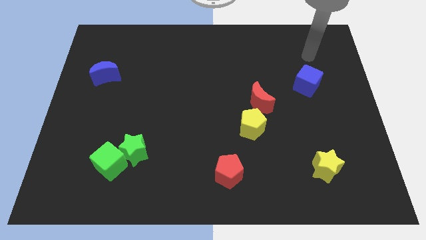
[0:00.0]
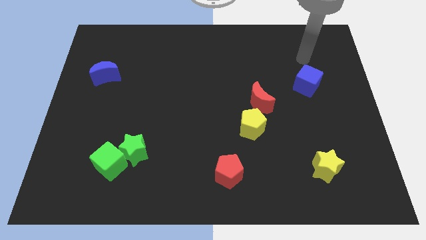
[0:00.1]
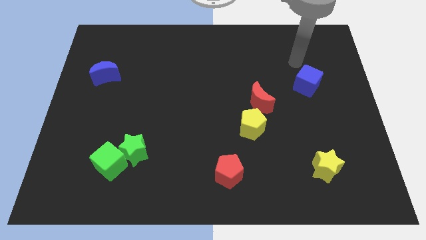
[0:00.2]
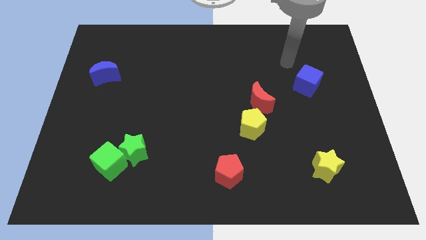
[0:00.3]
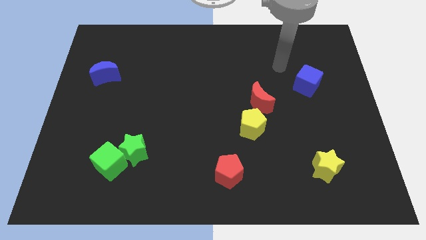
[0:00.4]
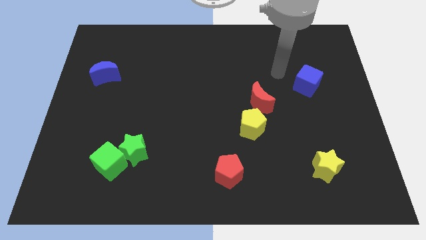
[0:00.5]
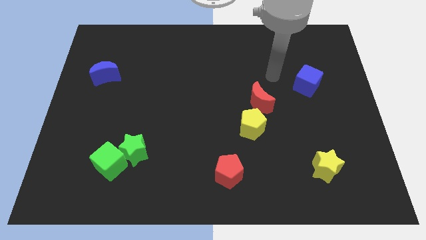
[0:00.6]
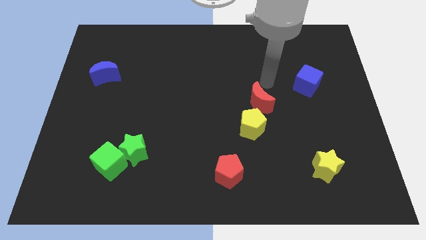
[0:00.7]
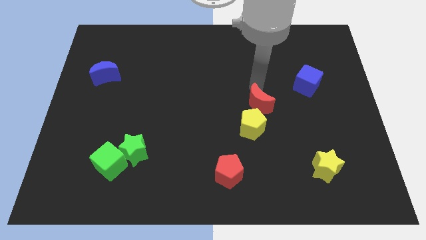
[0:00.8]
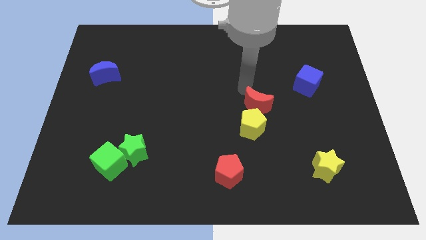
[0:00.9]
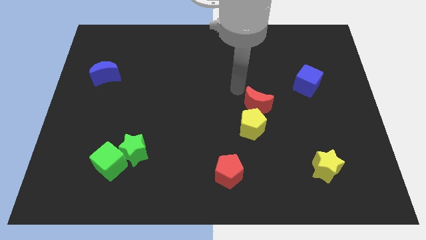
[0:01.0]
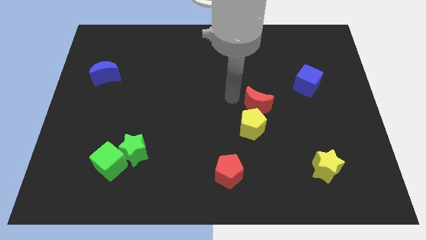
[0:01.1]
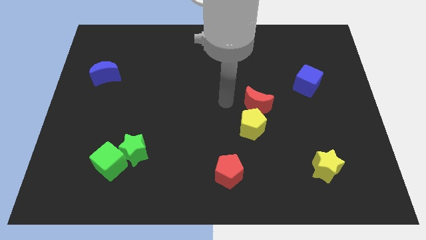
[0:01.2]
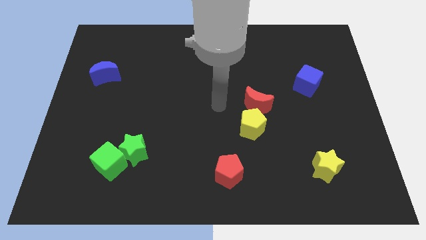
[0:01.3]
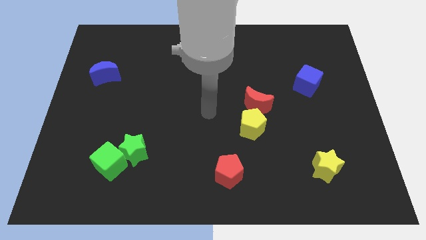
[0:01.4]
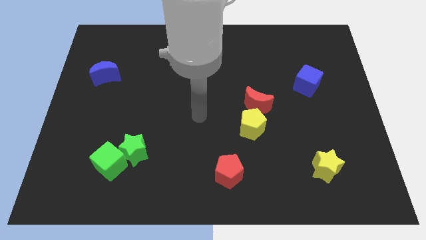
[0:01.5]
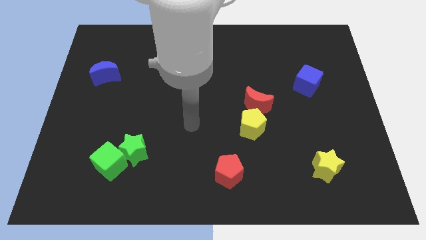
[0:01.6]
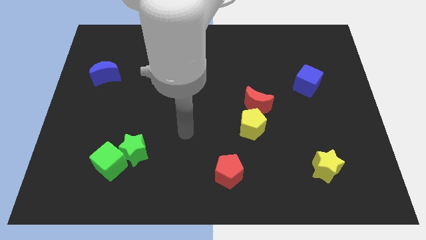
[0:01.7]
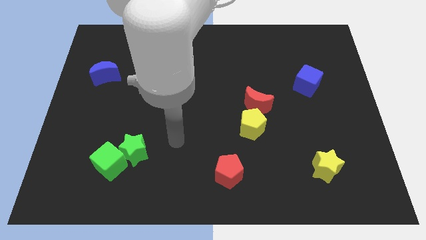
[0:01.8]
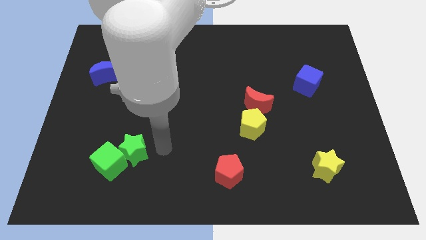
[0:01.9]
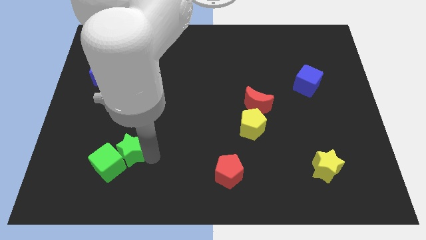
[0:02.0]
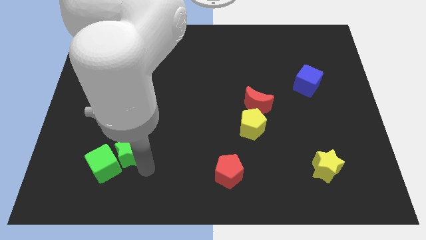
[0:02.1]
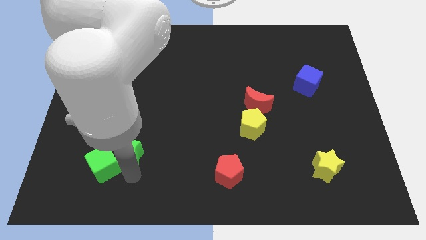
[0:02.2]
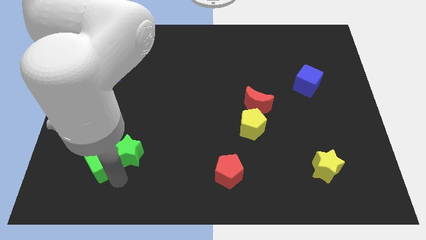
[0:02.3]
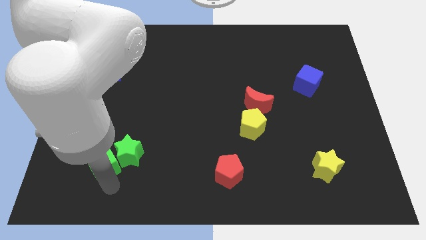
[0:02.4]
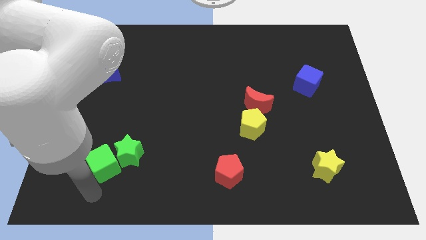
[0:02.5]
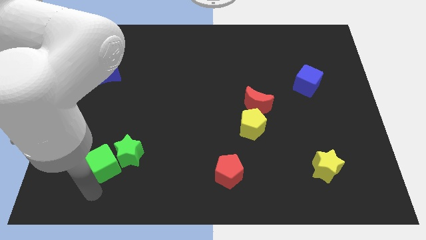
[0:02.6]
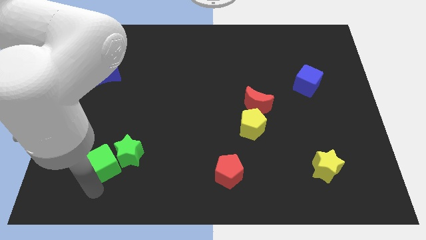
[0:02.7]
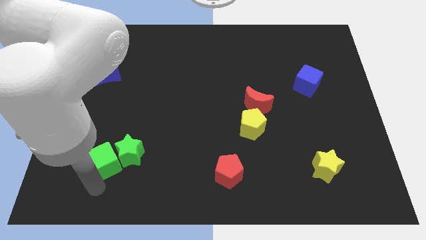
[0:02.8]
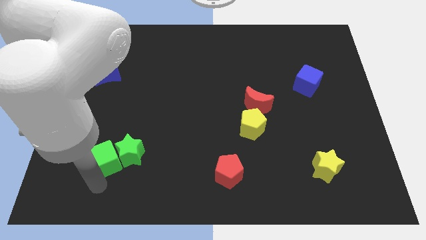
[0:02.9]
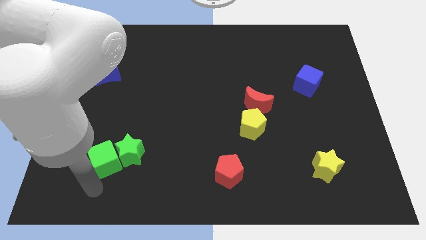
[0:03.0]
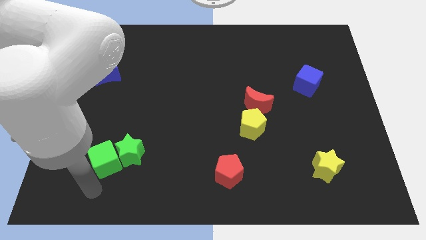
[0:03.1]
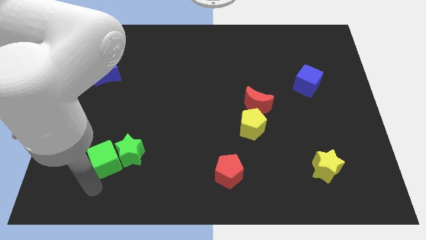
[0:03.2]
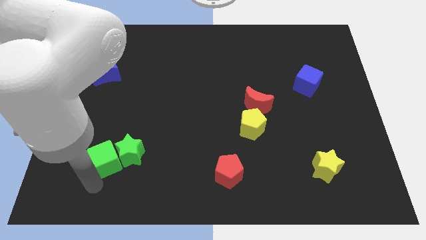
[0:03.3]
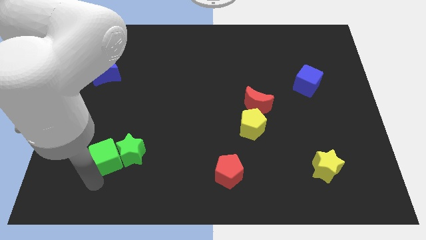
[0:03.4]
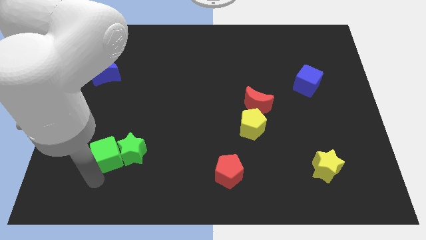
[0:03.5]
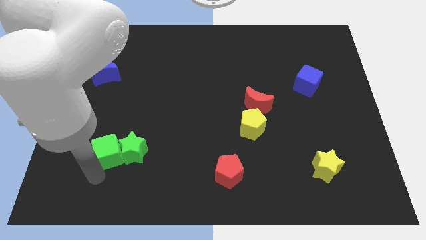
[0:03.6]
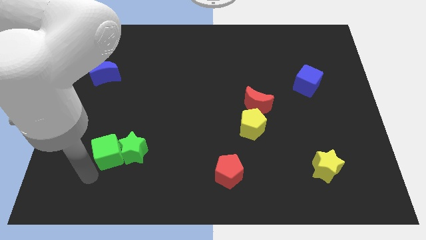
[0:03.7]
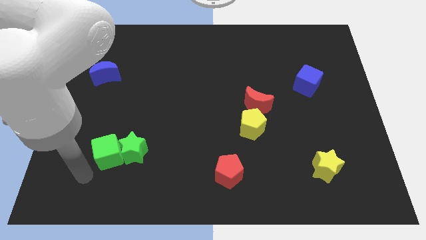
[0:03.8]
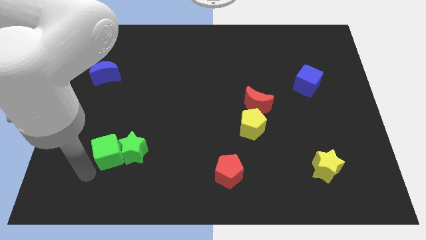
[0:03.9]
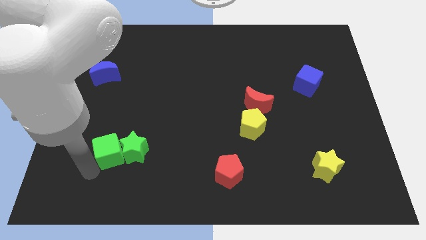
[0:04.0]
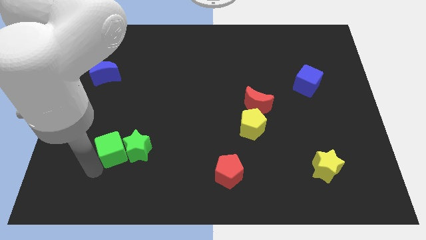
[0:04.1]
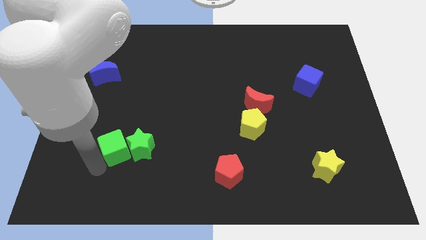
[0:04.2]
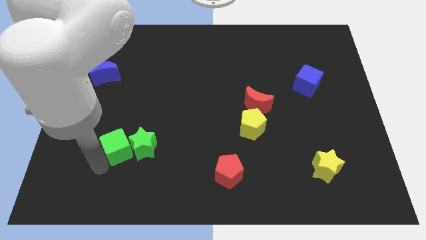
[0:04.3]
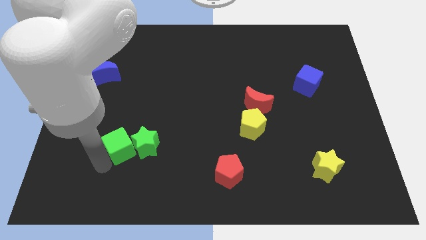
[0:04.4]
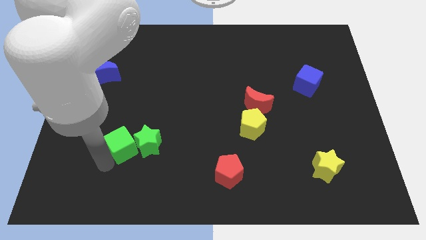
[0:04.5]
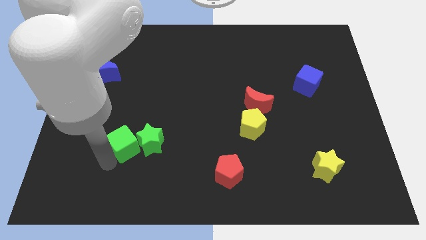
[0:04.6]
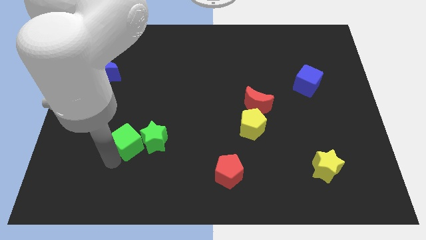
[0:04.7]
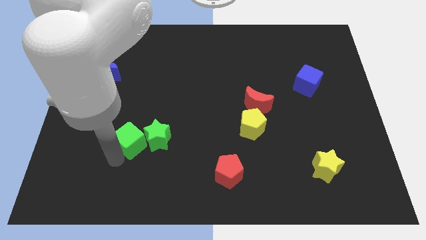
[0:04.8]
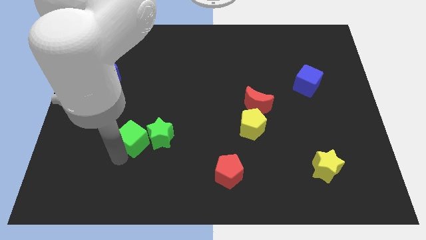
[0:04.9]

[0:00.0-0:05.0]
slightly push the green cube diagonally up and to the right

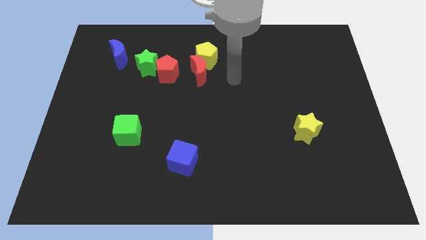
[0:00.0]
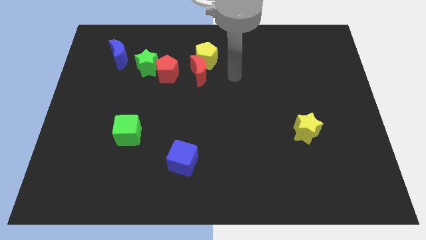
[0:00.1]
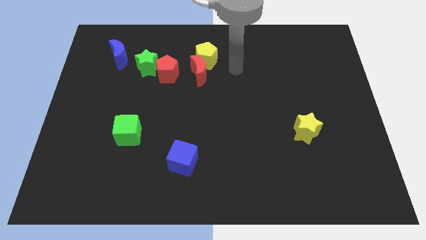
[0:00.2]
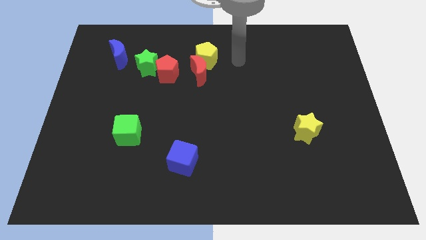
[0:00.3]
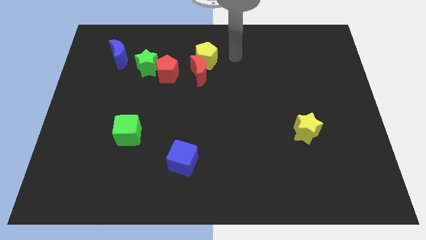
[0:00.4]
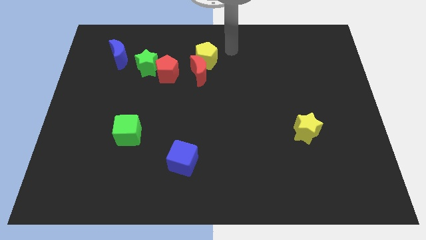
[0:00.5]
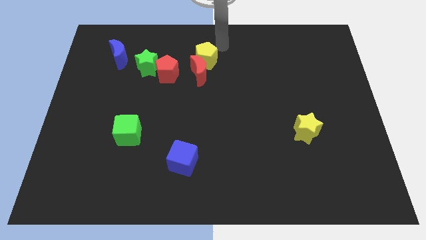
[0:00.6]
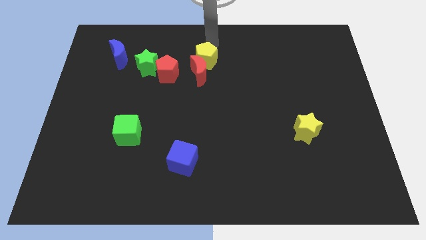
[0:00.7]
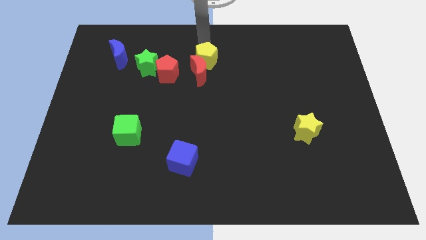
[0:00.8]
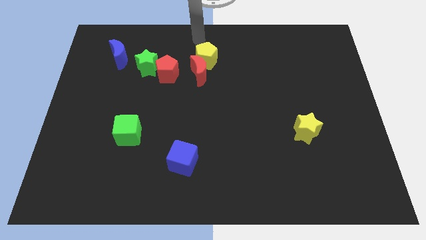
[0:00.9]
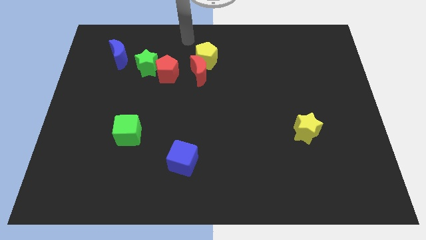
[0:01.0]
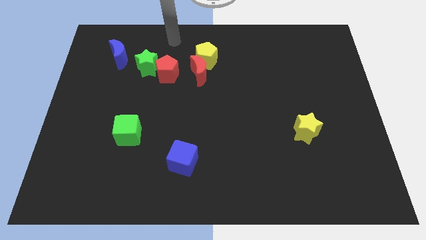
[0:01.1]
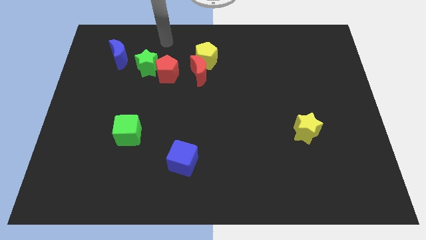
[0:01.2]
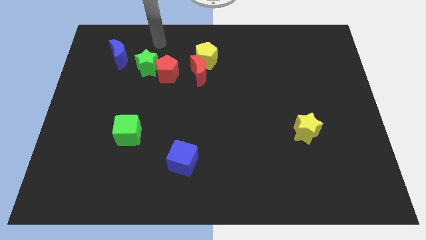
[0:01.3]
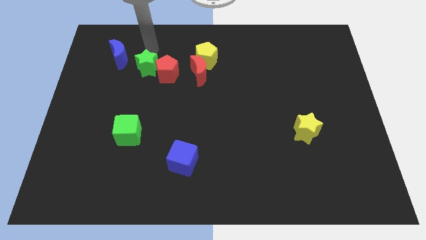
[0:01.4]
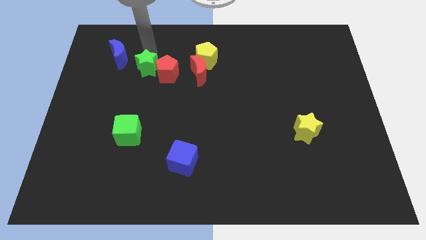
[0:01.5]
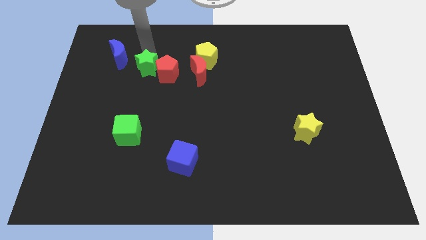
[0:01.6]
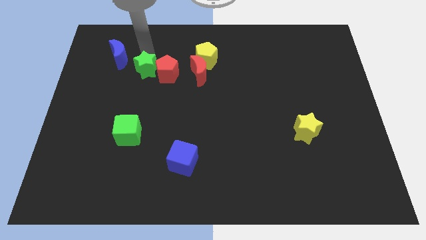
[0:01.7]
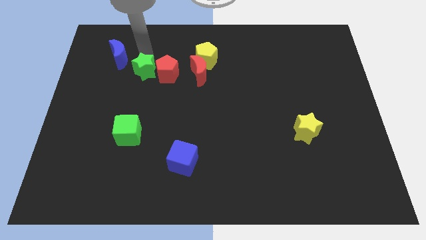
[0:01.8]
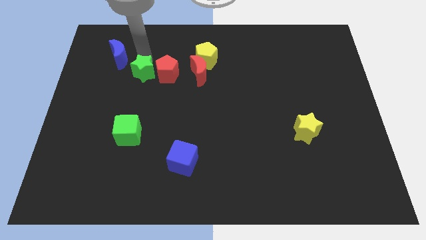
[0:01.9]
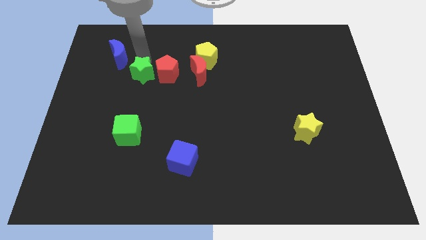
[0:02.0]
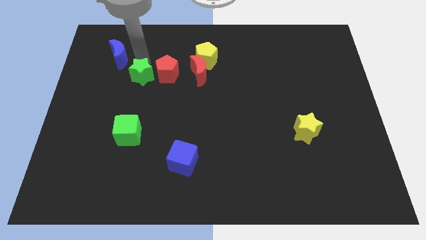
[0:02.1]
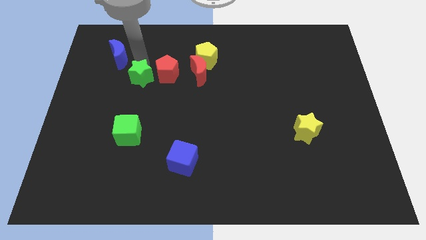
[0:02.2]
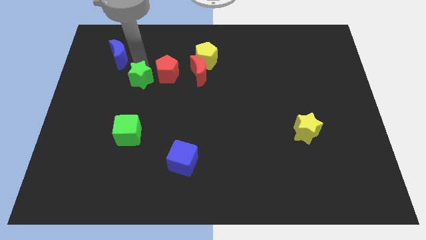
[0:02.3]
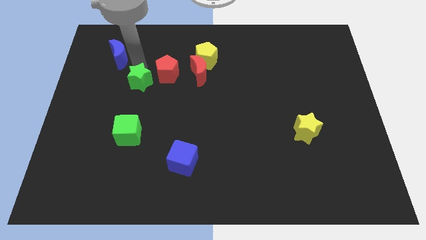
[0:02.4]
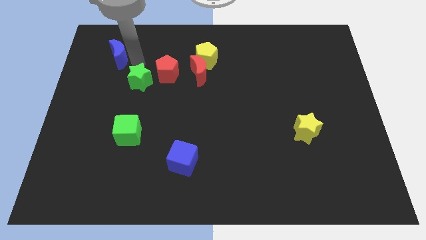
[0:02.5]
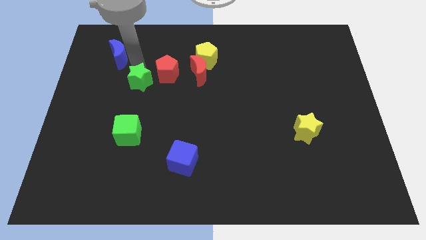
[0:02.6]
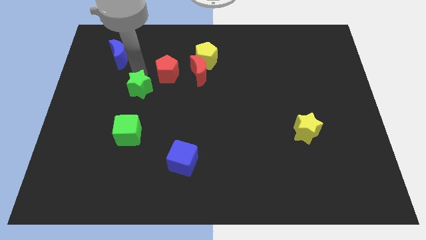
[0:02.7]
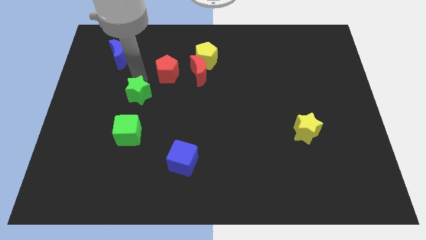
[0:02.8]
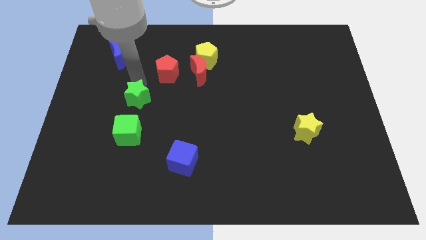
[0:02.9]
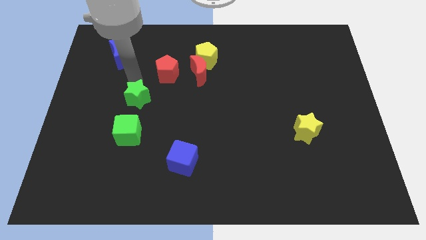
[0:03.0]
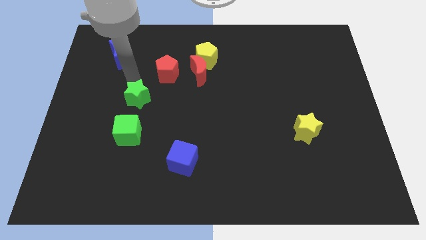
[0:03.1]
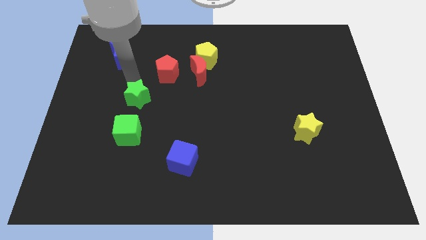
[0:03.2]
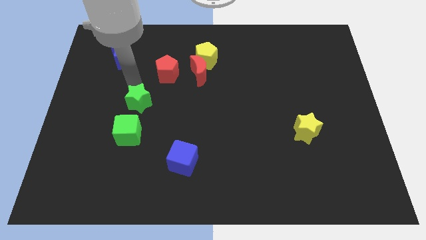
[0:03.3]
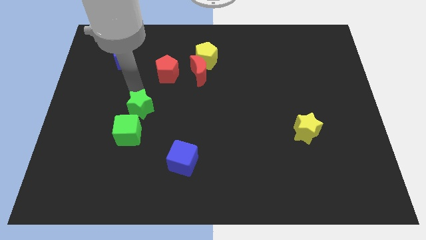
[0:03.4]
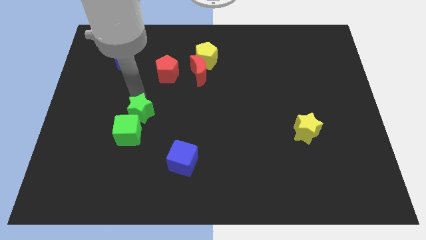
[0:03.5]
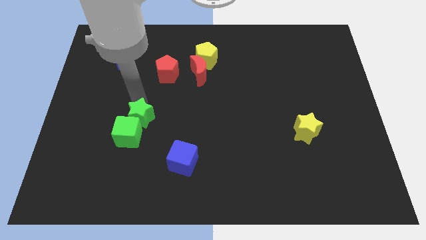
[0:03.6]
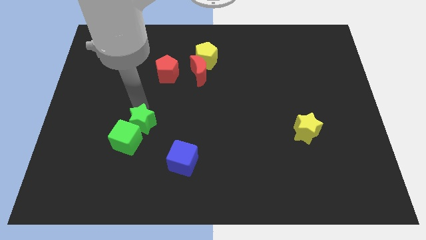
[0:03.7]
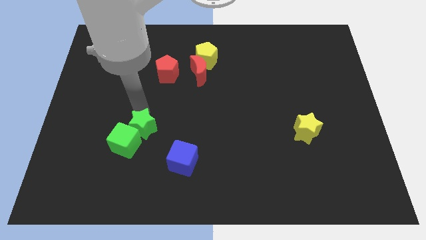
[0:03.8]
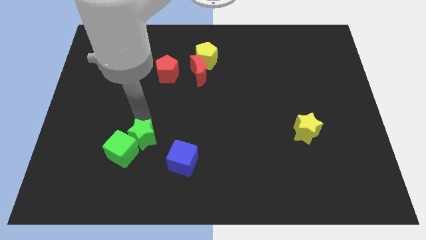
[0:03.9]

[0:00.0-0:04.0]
slide the green star down
